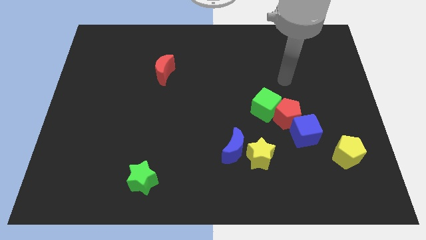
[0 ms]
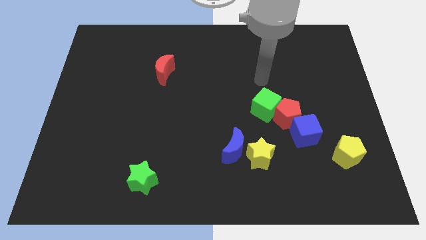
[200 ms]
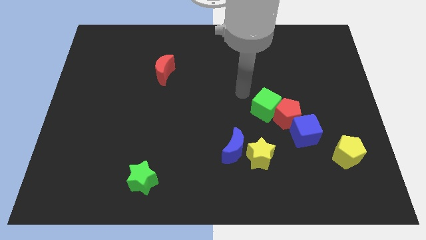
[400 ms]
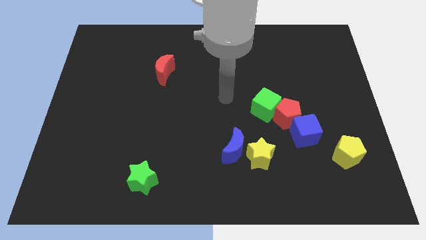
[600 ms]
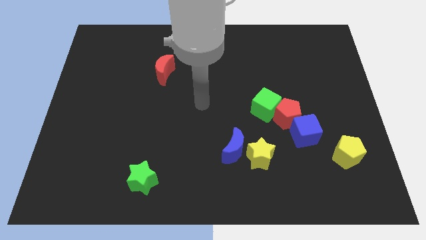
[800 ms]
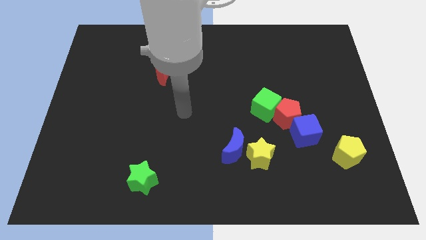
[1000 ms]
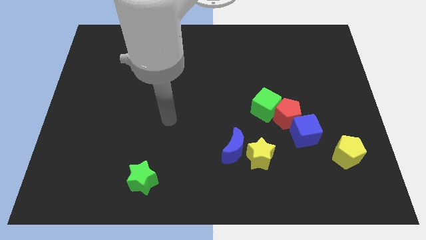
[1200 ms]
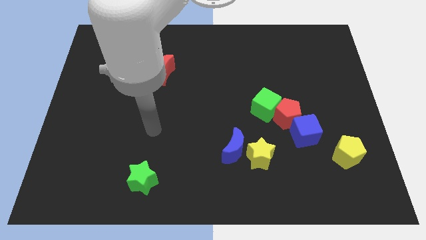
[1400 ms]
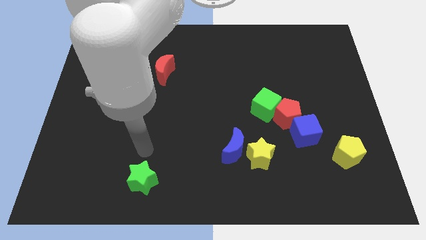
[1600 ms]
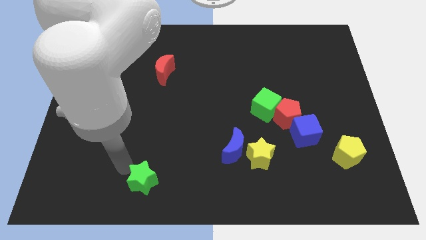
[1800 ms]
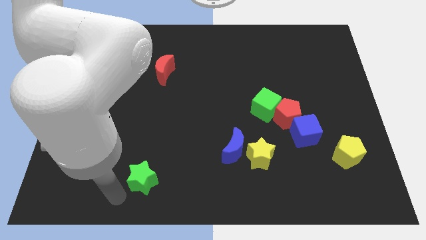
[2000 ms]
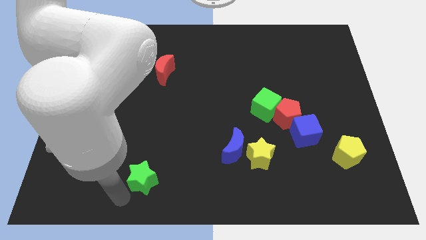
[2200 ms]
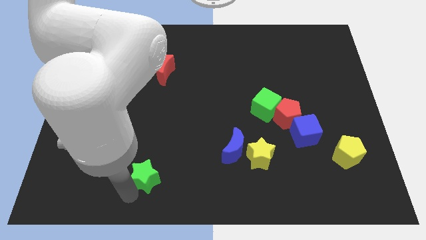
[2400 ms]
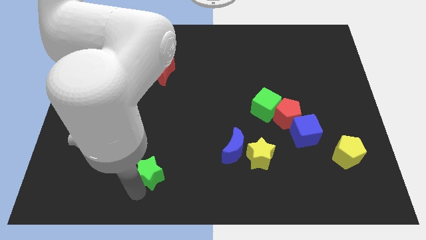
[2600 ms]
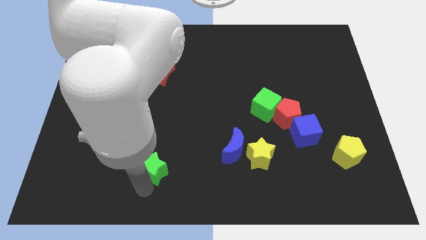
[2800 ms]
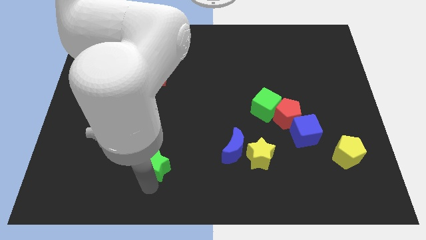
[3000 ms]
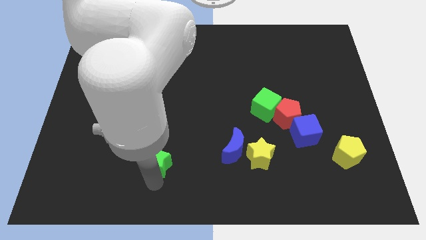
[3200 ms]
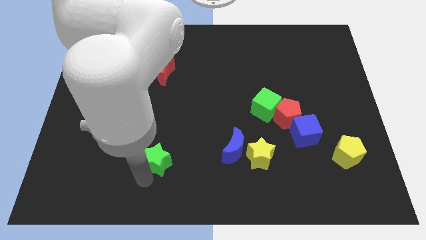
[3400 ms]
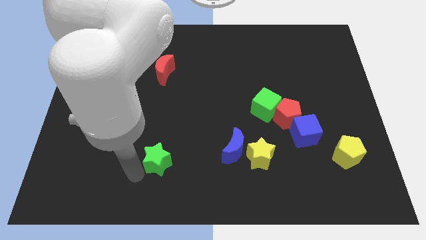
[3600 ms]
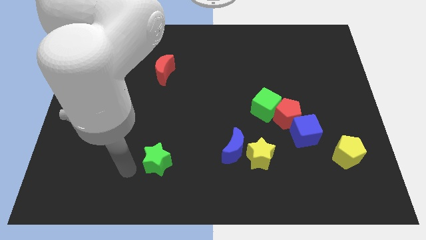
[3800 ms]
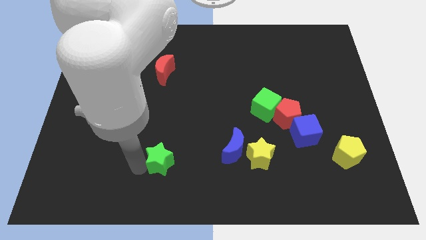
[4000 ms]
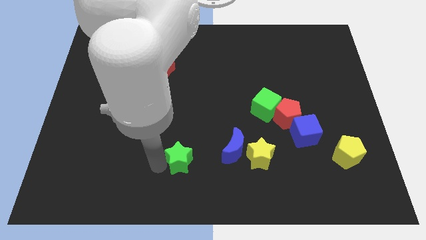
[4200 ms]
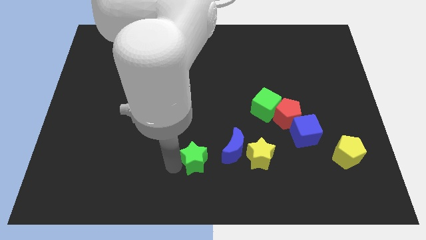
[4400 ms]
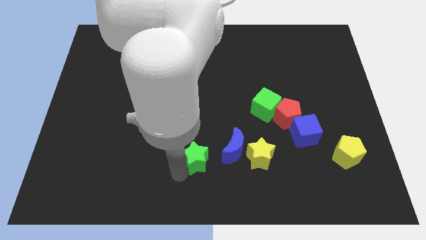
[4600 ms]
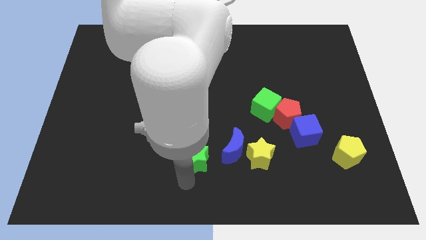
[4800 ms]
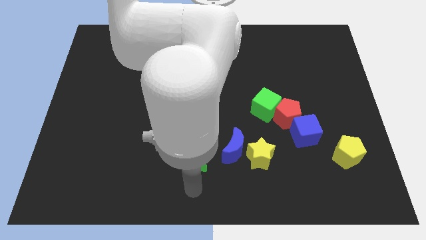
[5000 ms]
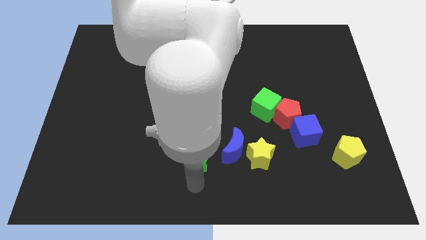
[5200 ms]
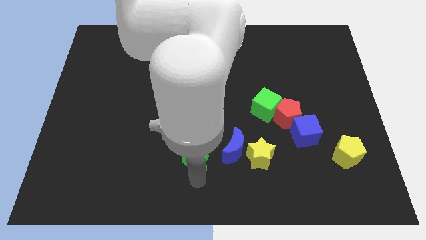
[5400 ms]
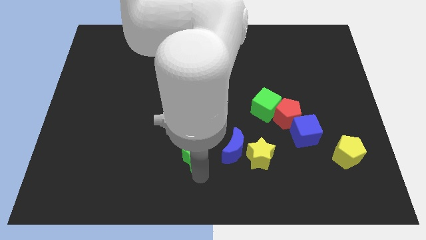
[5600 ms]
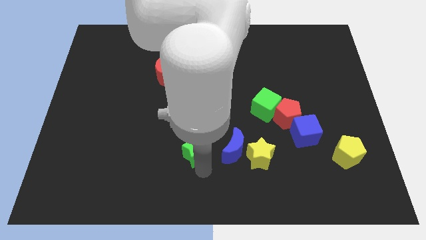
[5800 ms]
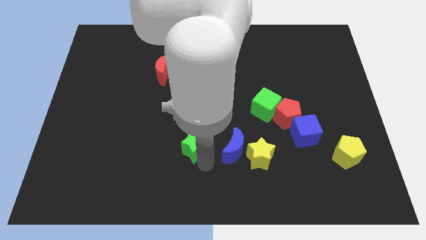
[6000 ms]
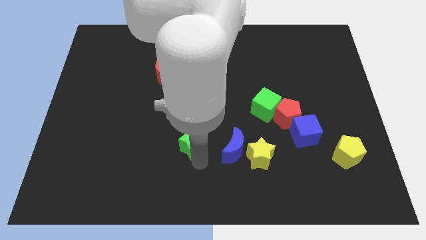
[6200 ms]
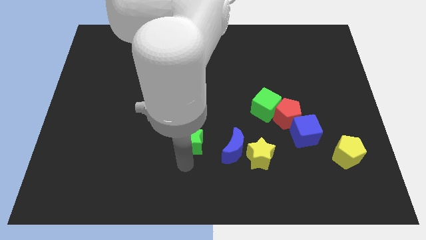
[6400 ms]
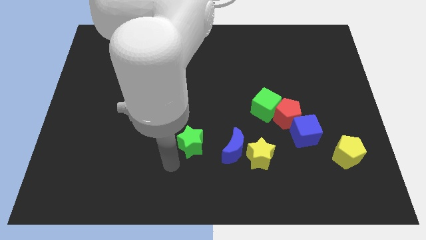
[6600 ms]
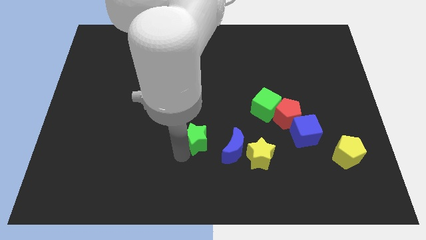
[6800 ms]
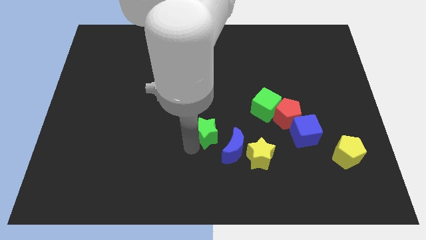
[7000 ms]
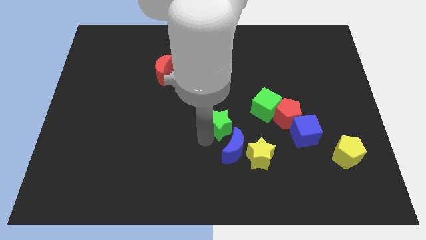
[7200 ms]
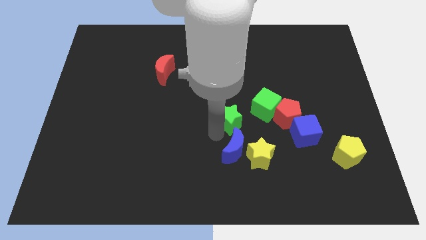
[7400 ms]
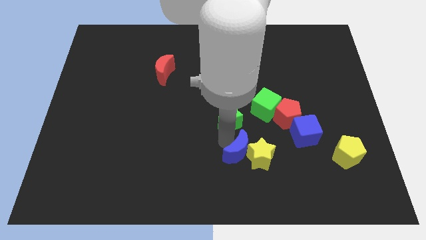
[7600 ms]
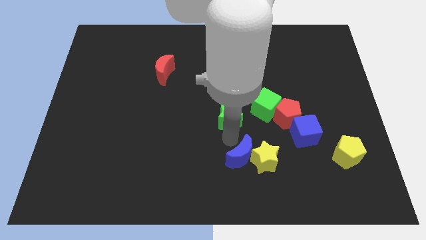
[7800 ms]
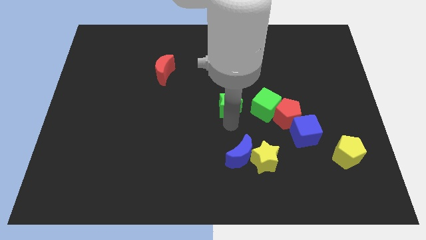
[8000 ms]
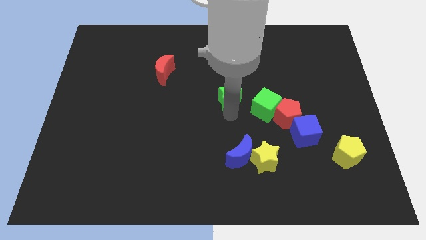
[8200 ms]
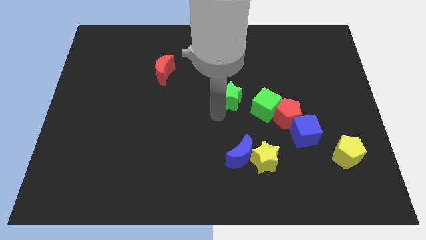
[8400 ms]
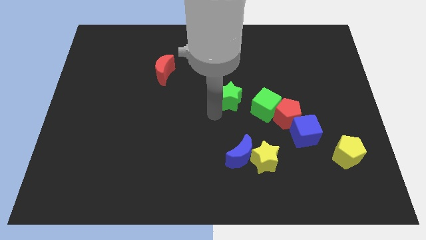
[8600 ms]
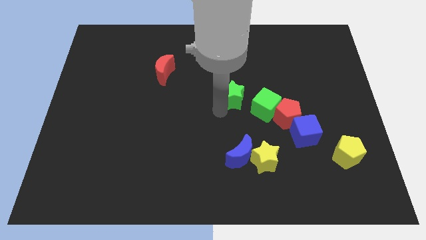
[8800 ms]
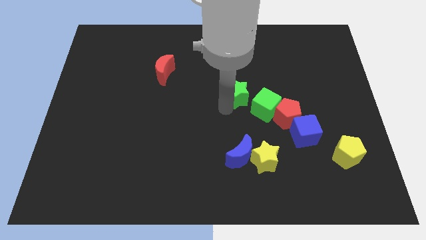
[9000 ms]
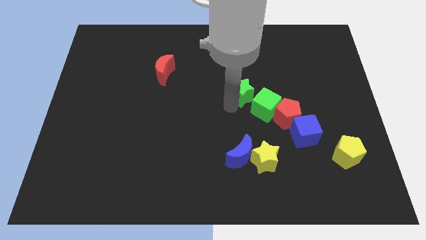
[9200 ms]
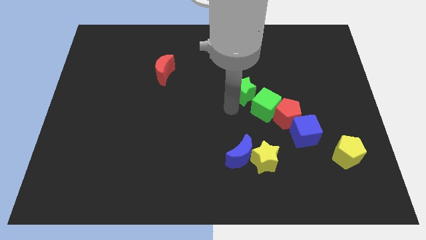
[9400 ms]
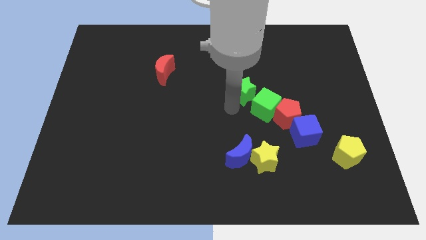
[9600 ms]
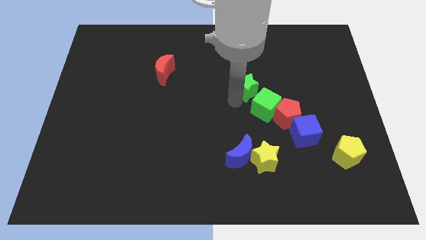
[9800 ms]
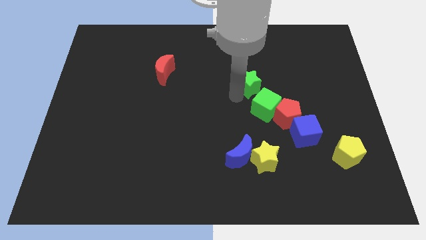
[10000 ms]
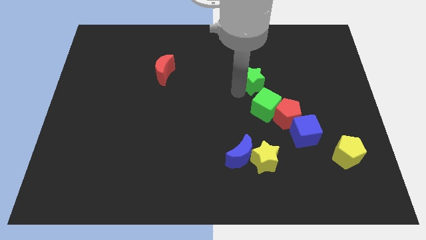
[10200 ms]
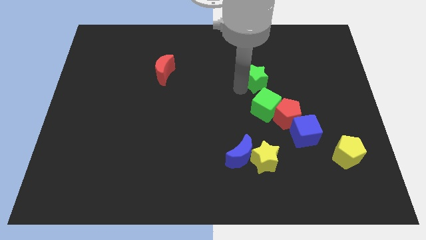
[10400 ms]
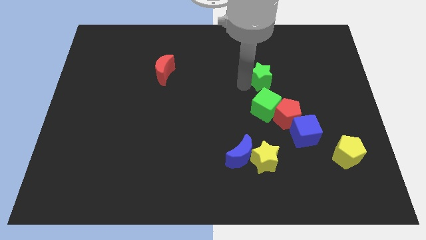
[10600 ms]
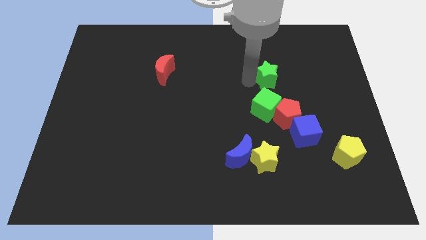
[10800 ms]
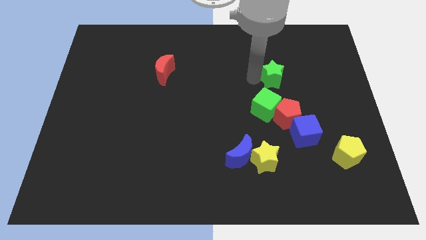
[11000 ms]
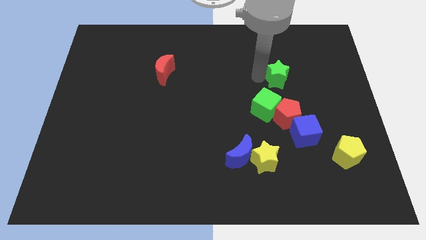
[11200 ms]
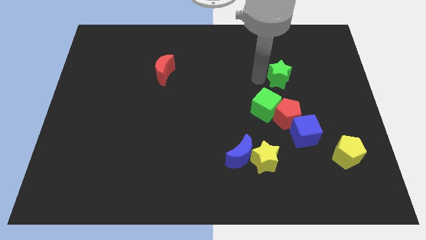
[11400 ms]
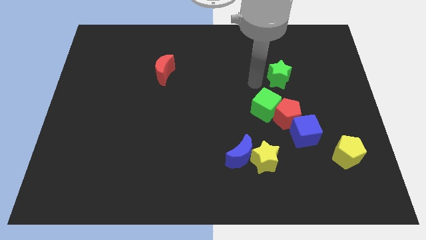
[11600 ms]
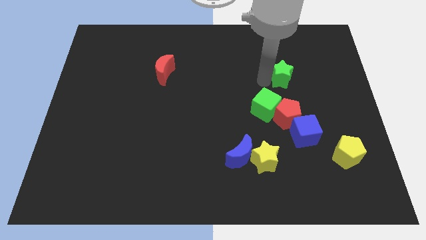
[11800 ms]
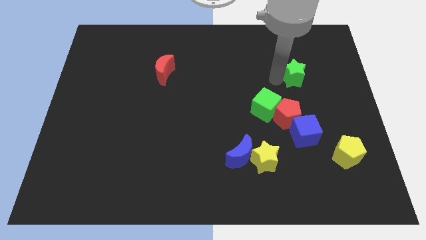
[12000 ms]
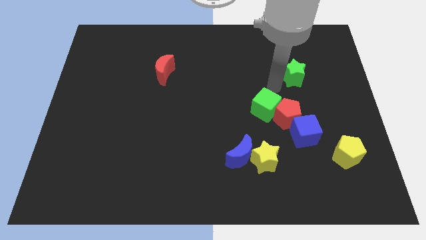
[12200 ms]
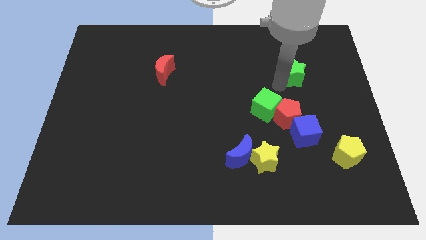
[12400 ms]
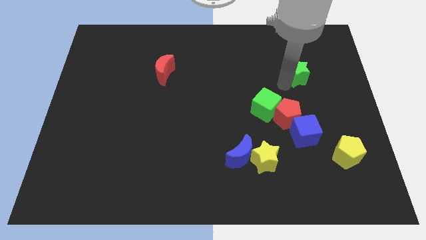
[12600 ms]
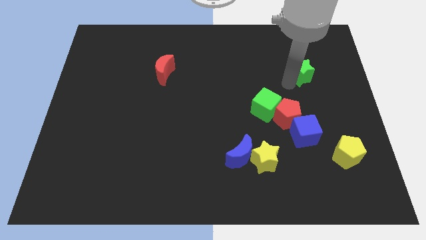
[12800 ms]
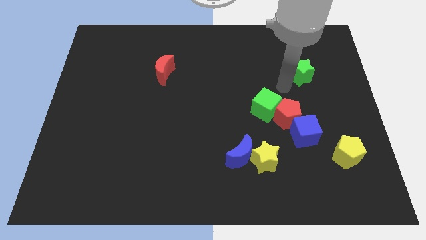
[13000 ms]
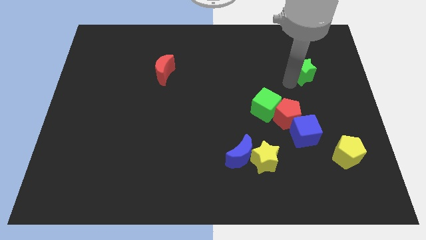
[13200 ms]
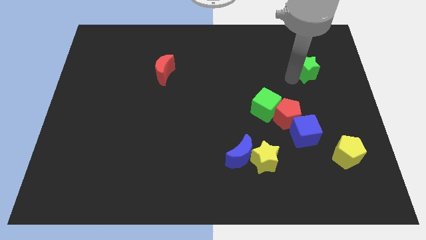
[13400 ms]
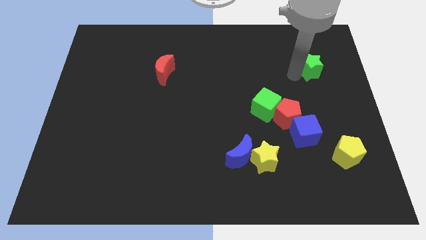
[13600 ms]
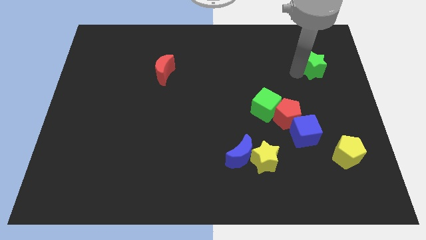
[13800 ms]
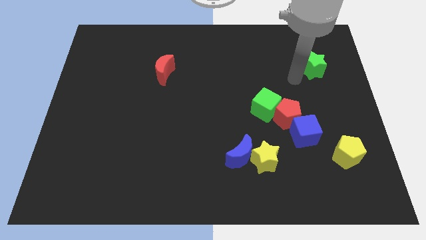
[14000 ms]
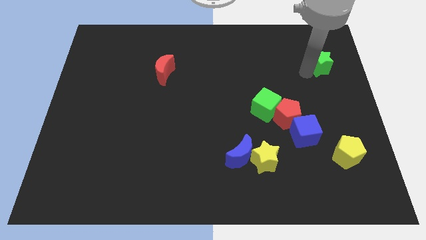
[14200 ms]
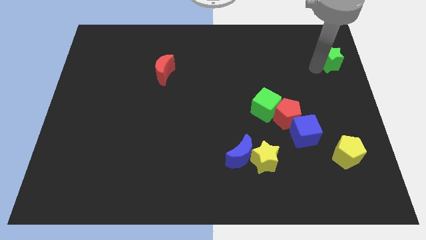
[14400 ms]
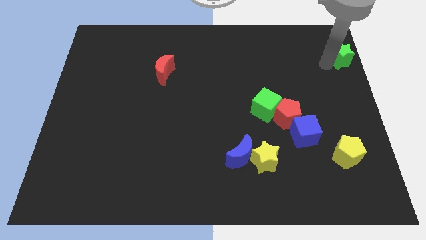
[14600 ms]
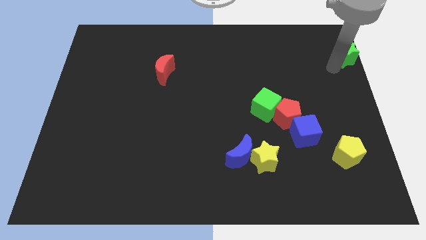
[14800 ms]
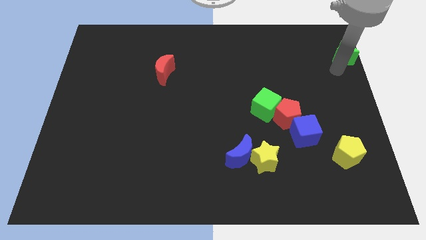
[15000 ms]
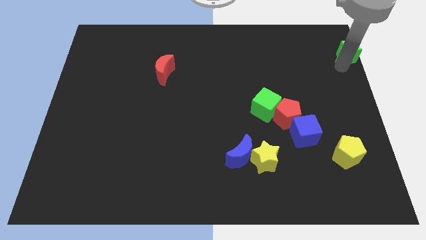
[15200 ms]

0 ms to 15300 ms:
push the green star to the top right corner

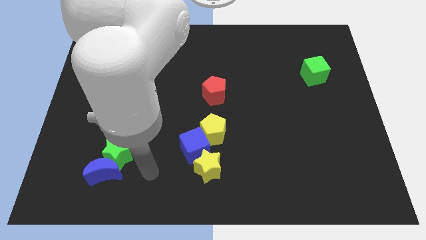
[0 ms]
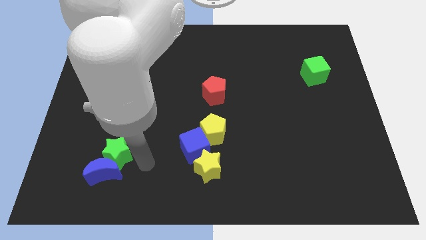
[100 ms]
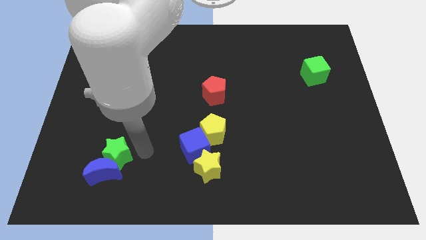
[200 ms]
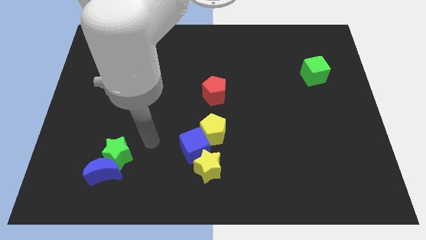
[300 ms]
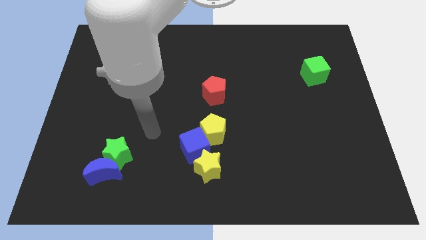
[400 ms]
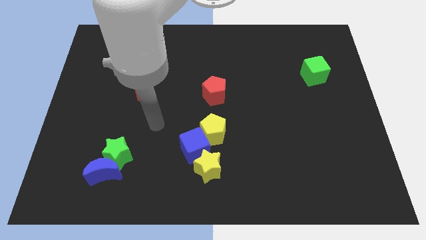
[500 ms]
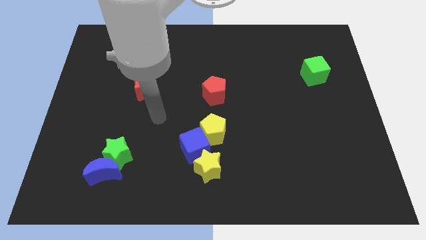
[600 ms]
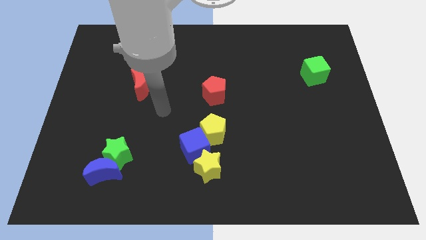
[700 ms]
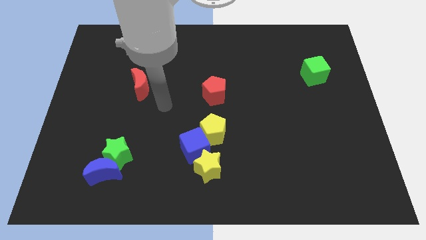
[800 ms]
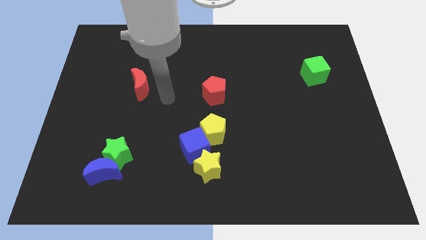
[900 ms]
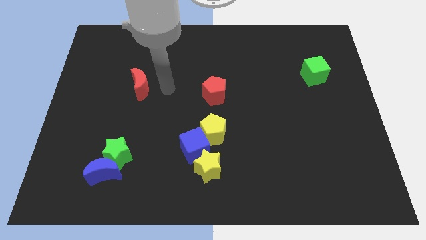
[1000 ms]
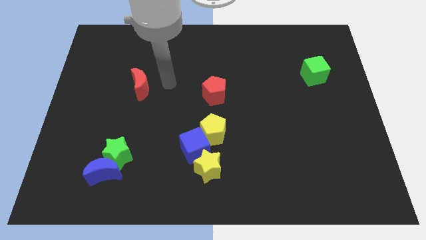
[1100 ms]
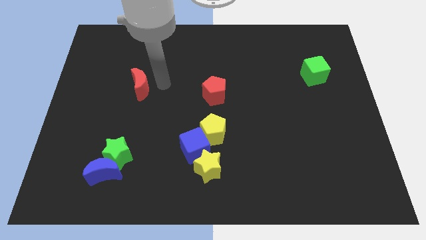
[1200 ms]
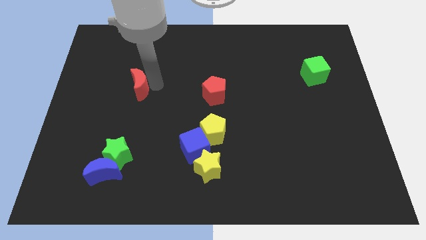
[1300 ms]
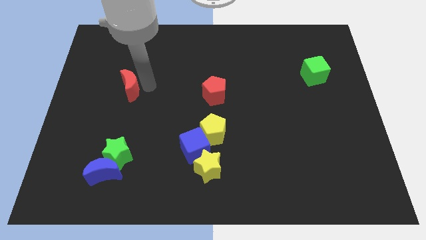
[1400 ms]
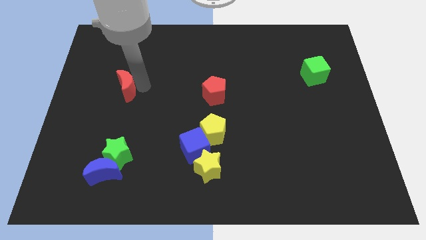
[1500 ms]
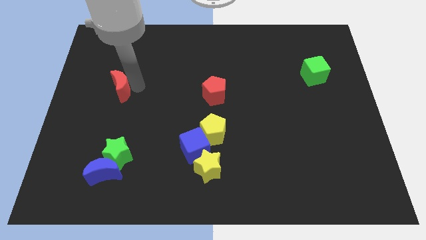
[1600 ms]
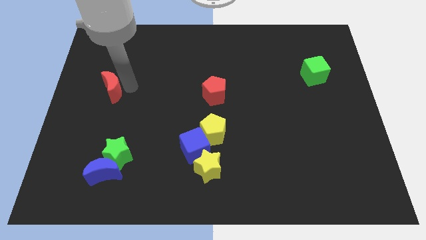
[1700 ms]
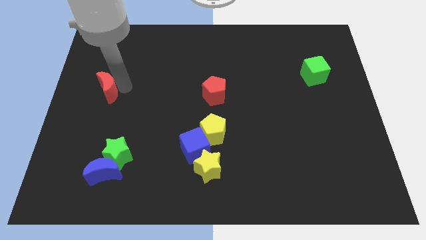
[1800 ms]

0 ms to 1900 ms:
slide the red moon to the center left
